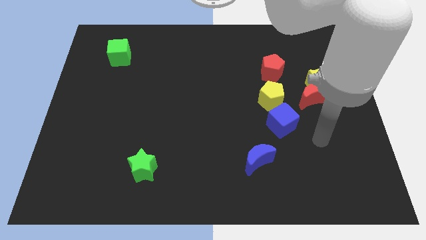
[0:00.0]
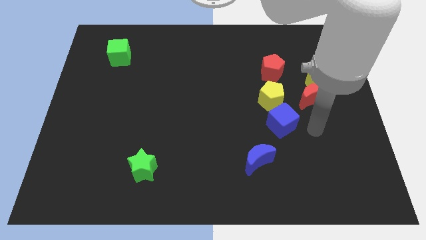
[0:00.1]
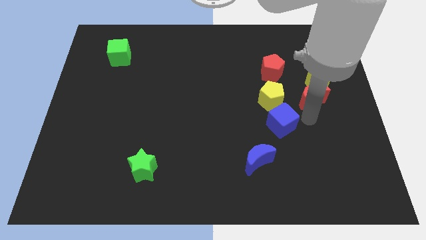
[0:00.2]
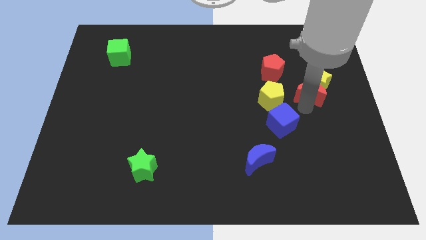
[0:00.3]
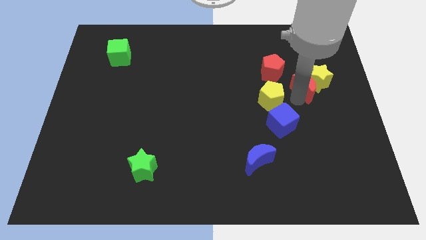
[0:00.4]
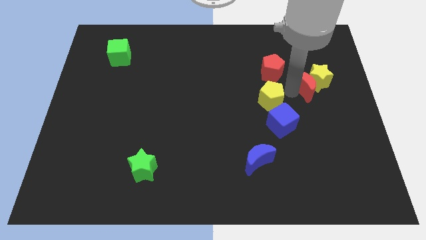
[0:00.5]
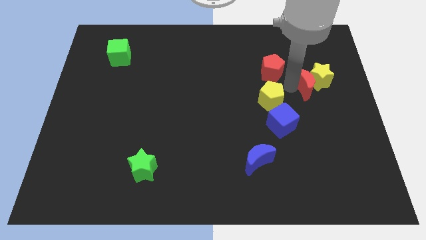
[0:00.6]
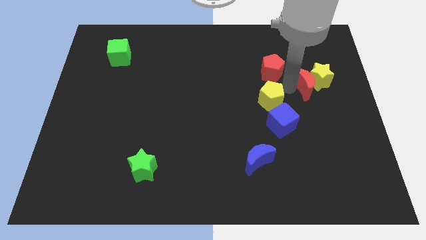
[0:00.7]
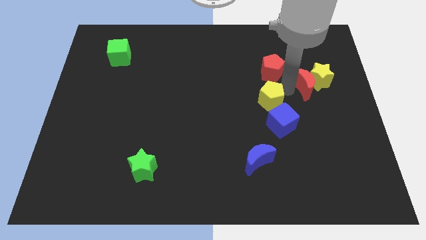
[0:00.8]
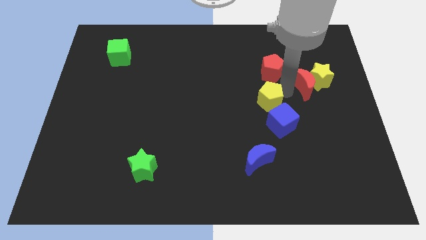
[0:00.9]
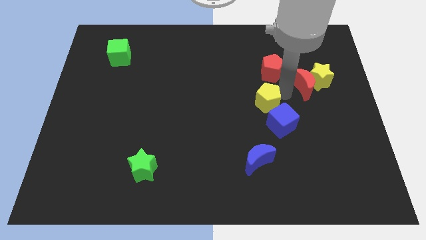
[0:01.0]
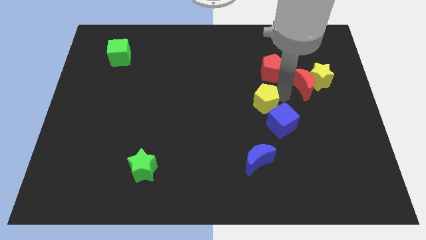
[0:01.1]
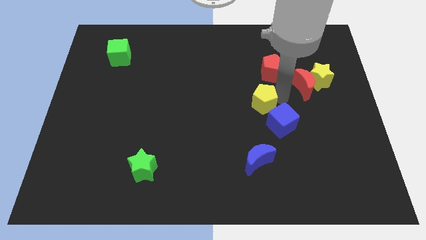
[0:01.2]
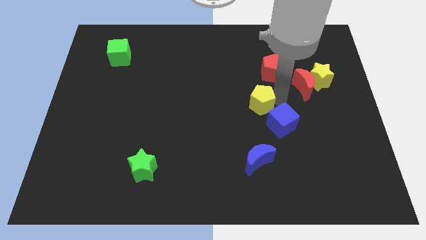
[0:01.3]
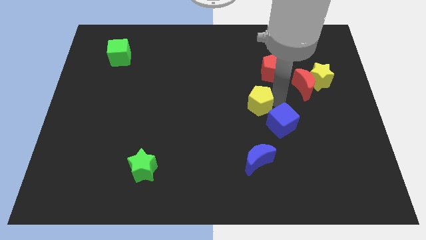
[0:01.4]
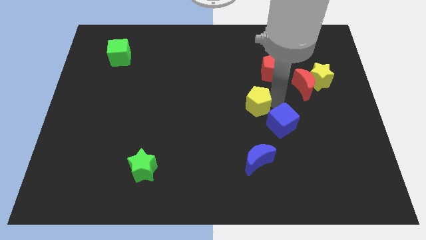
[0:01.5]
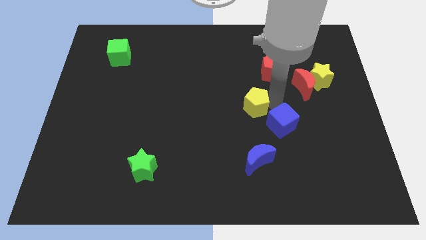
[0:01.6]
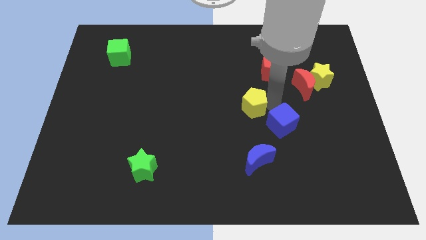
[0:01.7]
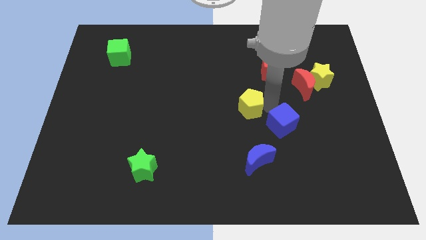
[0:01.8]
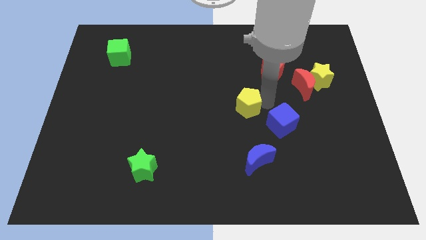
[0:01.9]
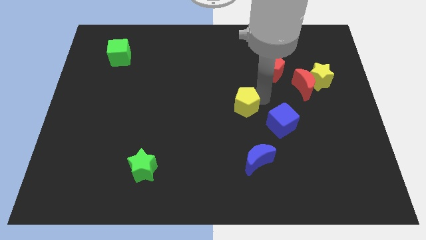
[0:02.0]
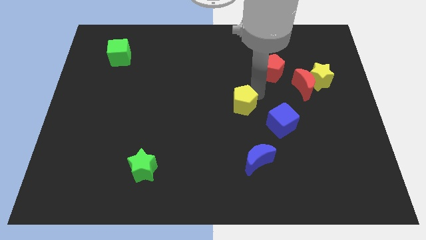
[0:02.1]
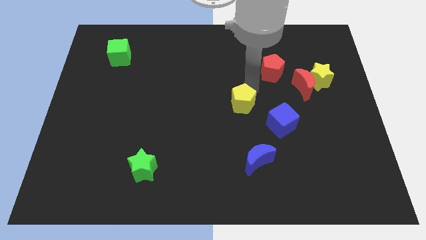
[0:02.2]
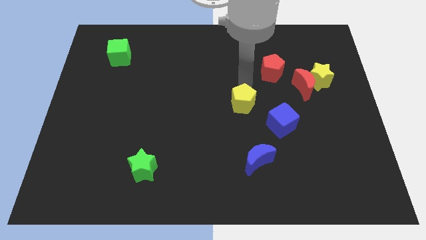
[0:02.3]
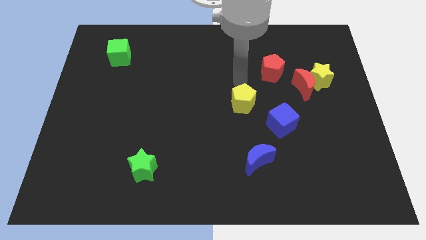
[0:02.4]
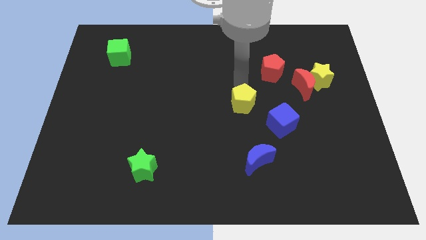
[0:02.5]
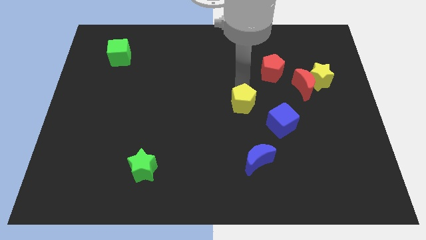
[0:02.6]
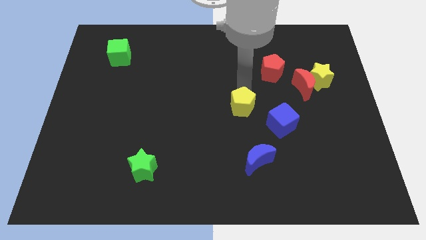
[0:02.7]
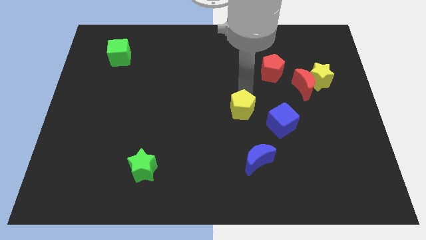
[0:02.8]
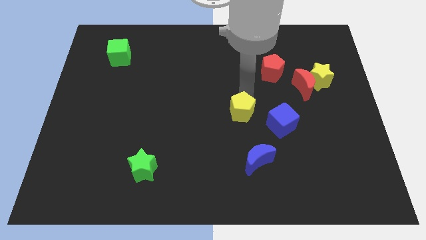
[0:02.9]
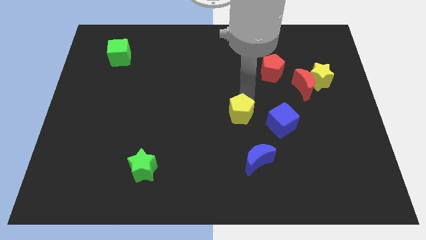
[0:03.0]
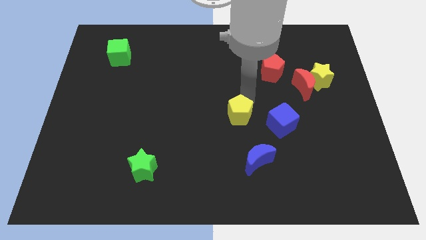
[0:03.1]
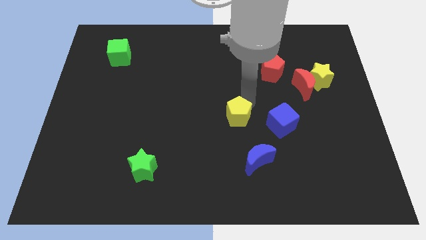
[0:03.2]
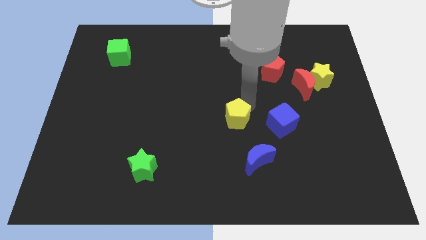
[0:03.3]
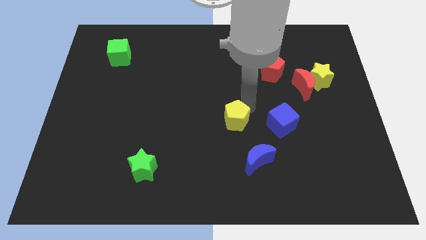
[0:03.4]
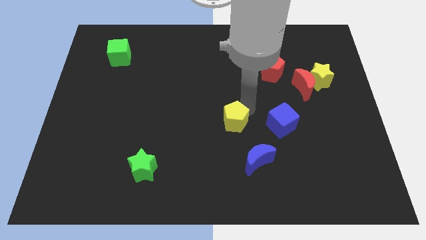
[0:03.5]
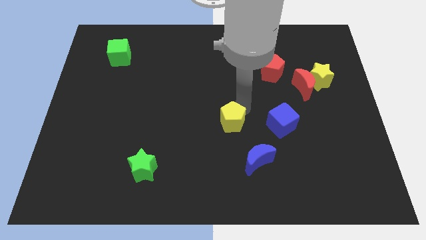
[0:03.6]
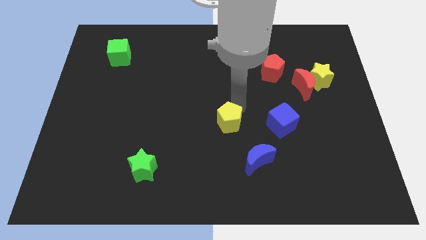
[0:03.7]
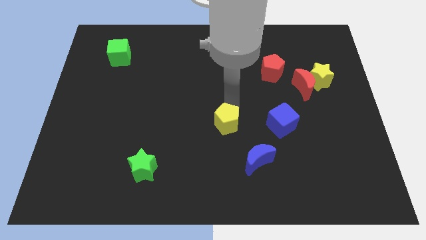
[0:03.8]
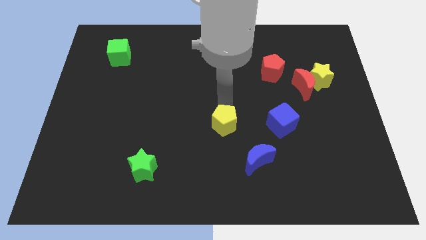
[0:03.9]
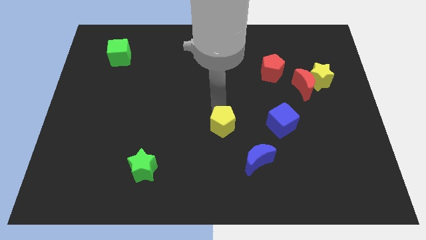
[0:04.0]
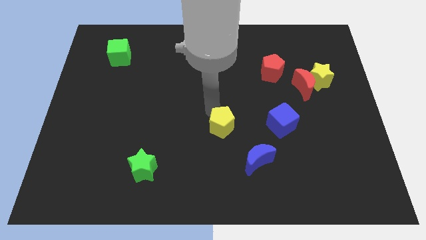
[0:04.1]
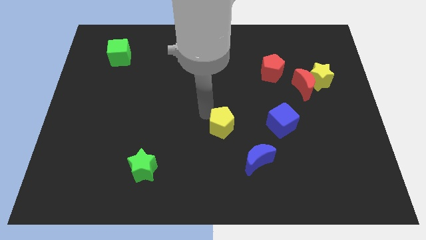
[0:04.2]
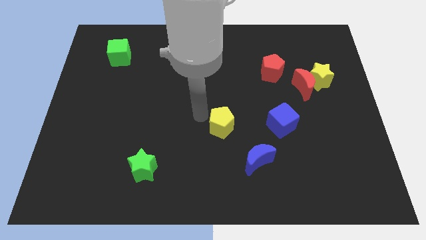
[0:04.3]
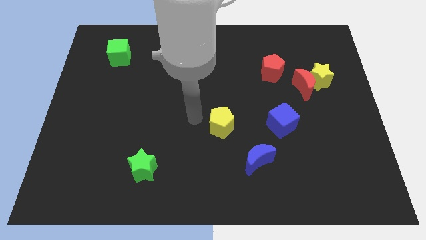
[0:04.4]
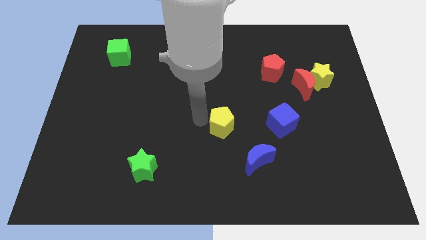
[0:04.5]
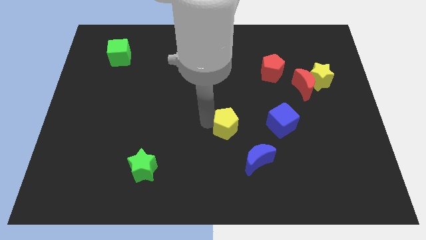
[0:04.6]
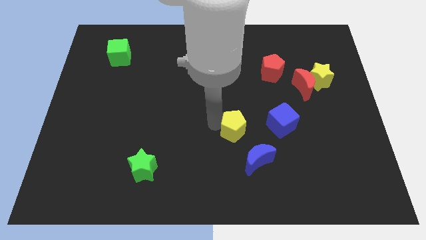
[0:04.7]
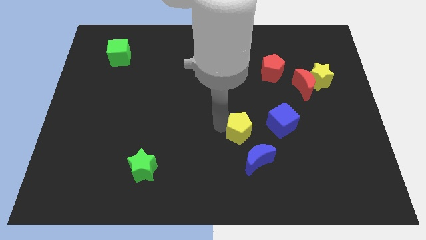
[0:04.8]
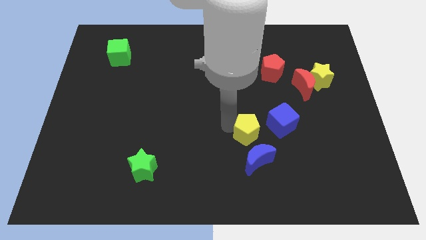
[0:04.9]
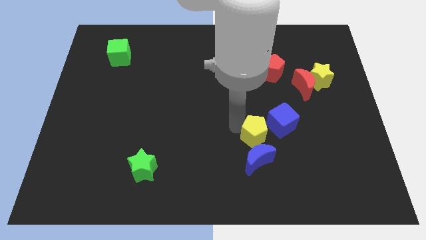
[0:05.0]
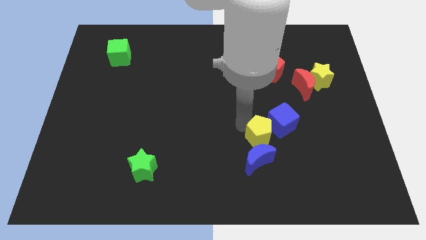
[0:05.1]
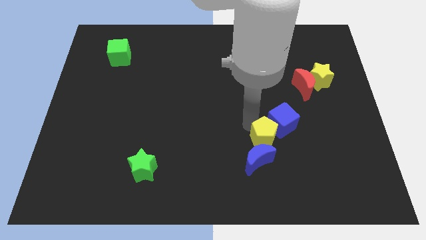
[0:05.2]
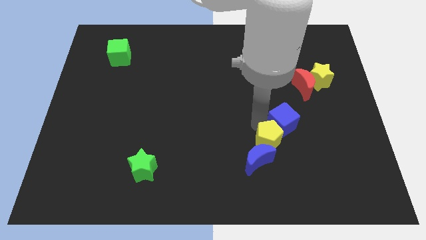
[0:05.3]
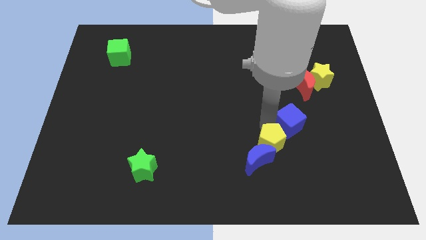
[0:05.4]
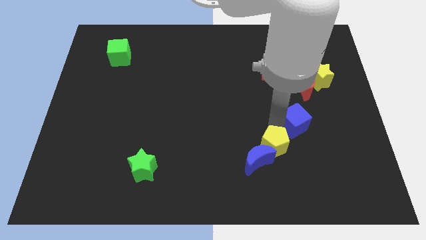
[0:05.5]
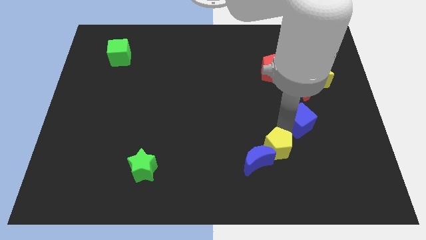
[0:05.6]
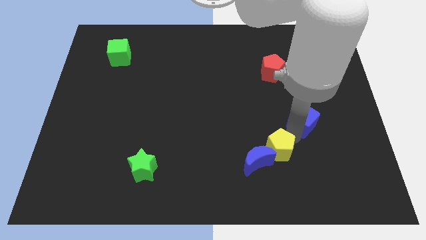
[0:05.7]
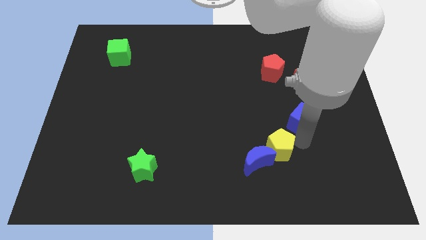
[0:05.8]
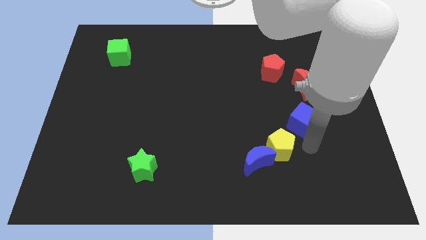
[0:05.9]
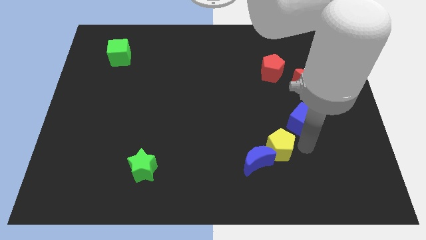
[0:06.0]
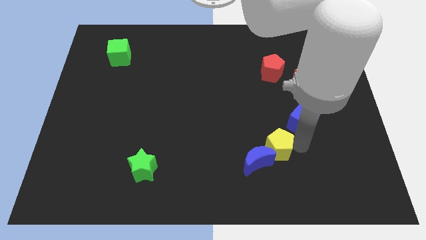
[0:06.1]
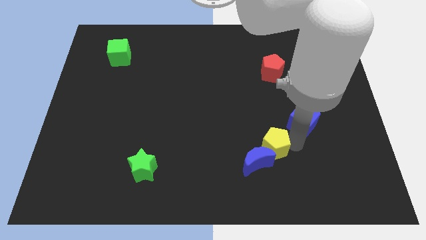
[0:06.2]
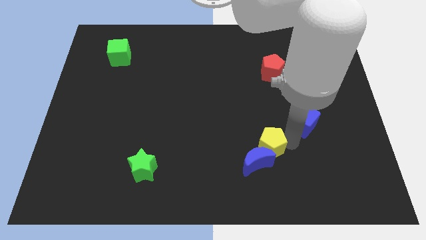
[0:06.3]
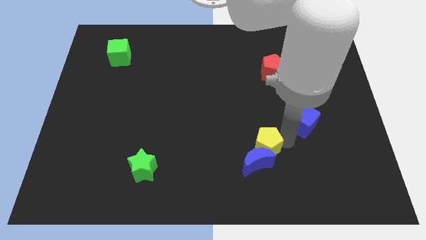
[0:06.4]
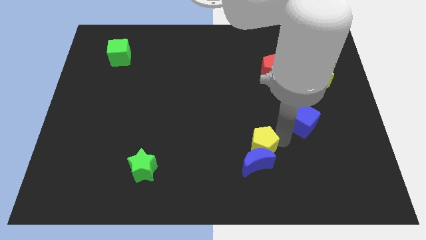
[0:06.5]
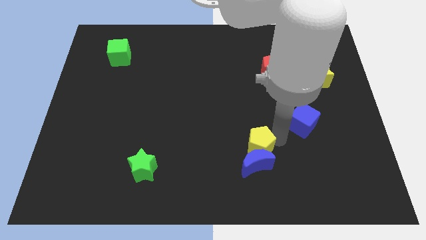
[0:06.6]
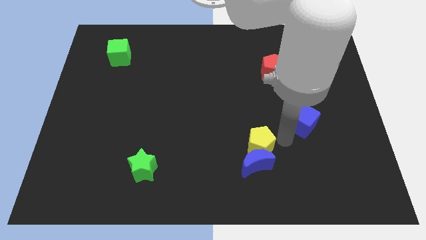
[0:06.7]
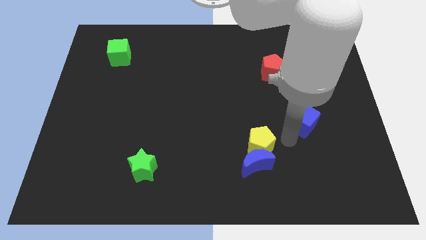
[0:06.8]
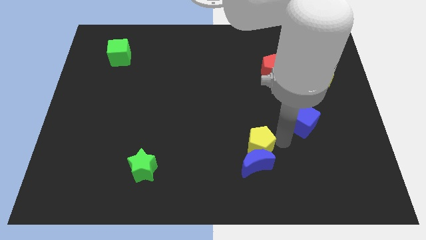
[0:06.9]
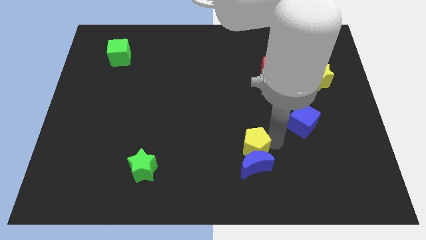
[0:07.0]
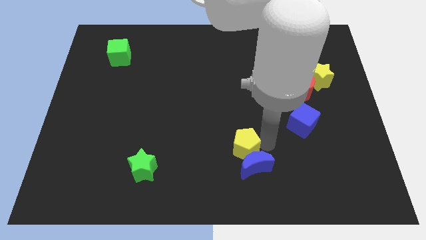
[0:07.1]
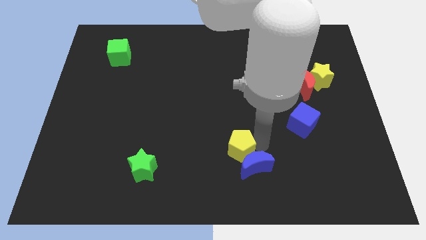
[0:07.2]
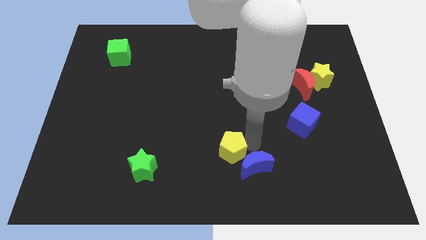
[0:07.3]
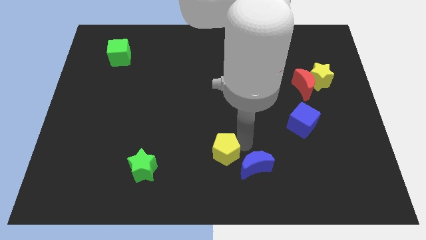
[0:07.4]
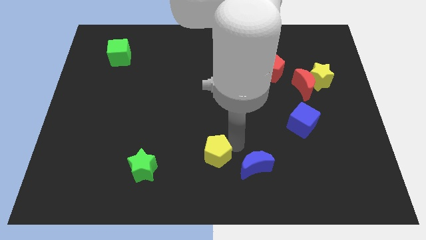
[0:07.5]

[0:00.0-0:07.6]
slide the yellow pentagon to the bottom side
